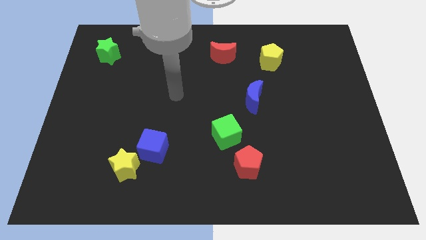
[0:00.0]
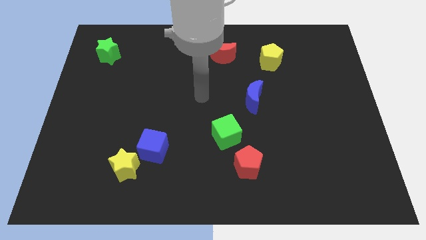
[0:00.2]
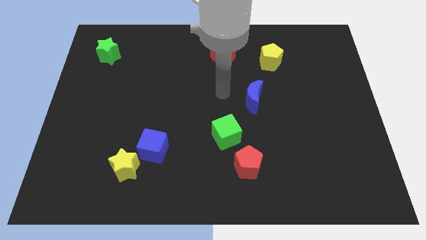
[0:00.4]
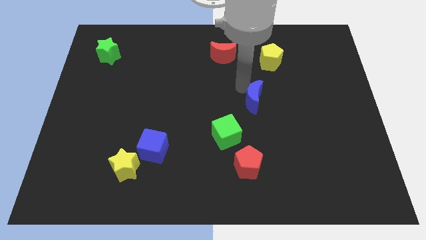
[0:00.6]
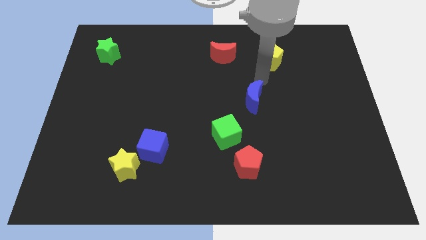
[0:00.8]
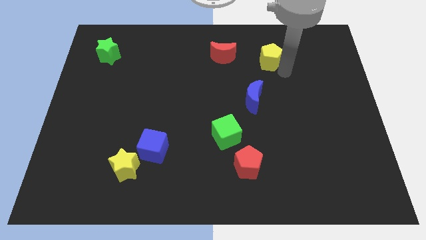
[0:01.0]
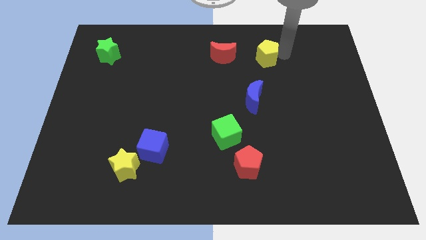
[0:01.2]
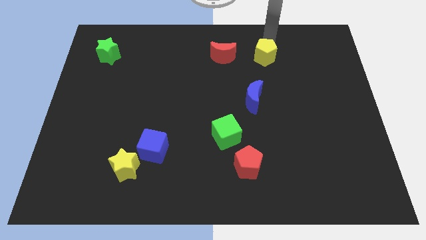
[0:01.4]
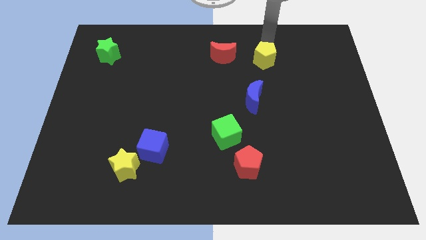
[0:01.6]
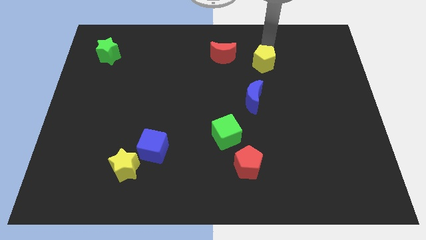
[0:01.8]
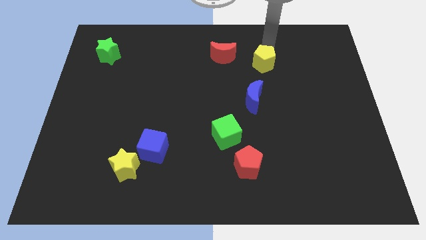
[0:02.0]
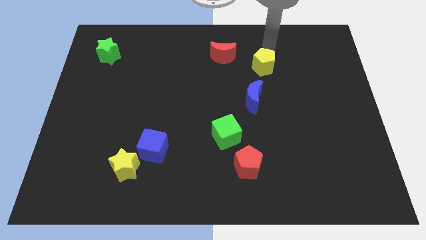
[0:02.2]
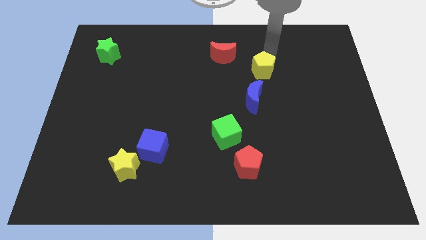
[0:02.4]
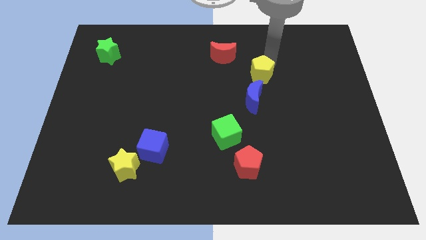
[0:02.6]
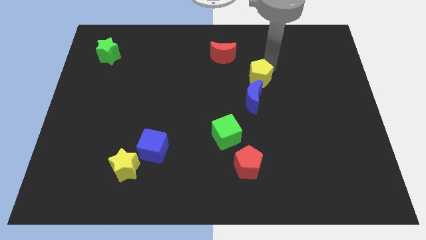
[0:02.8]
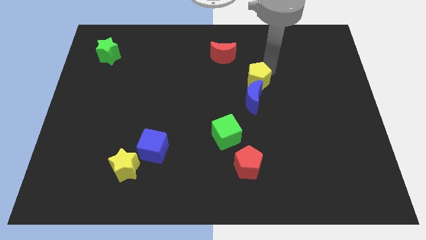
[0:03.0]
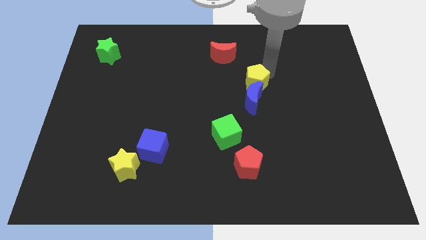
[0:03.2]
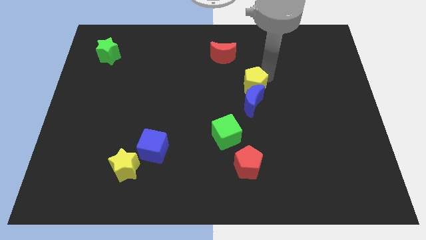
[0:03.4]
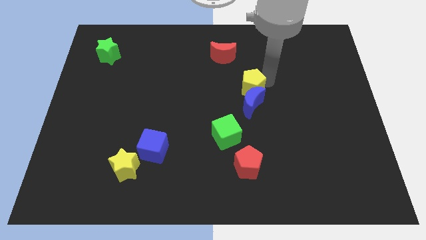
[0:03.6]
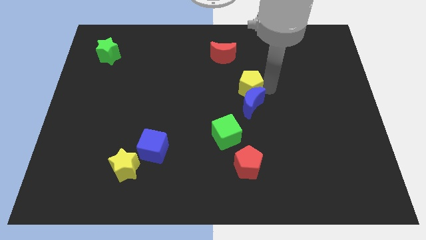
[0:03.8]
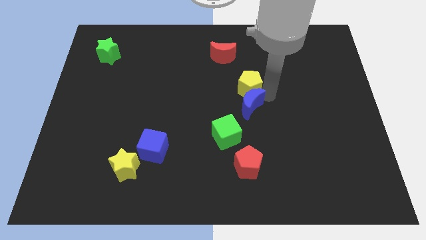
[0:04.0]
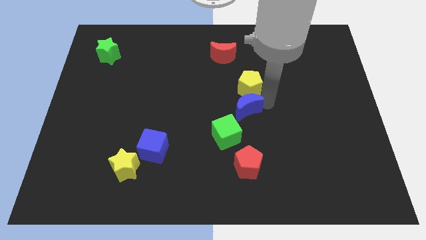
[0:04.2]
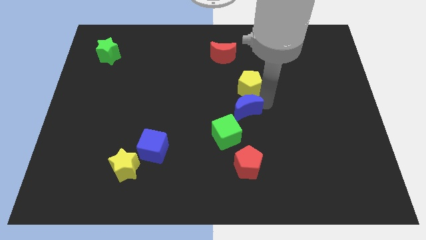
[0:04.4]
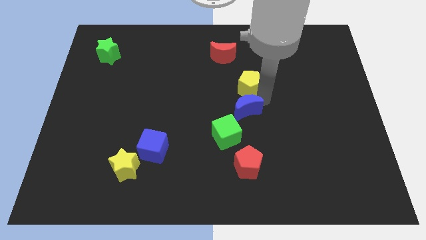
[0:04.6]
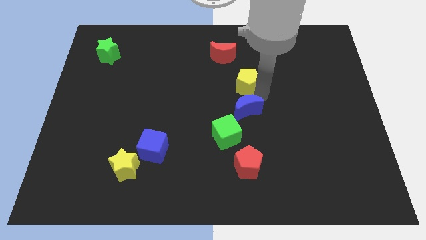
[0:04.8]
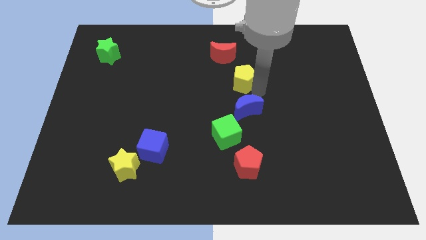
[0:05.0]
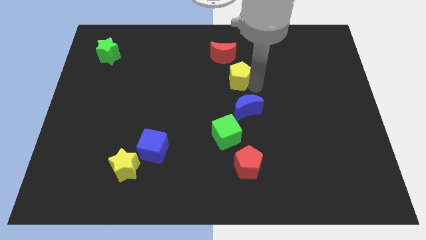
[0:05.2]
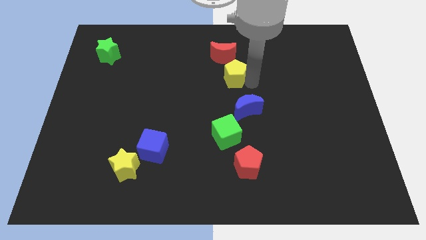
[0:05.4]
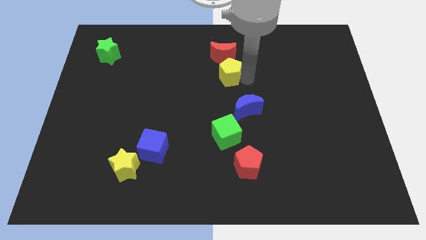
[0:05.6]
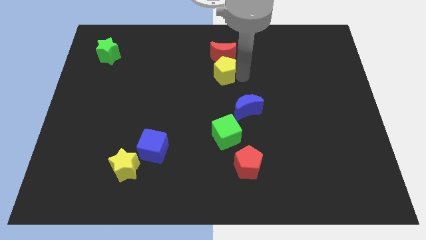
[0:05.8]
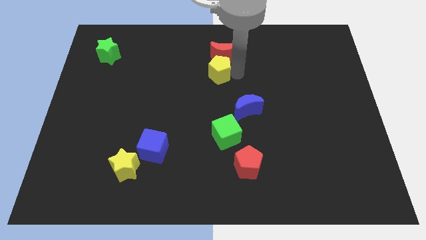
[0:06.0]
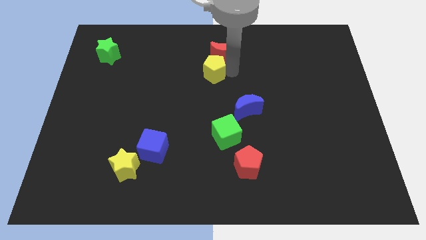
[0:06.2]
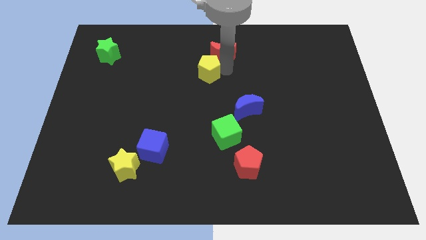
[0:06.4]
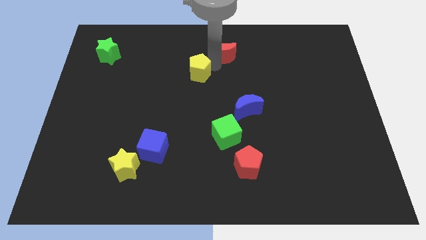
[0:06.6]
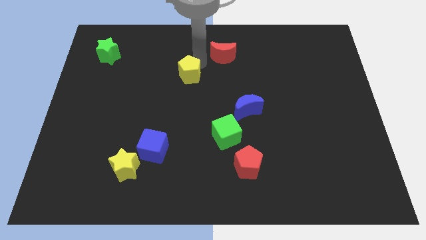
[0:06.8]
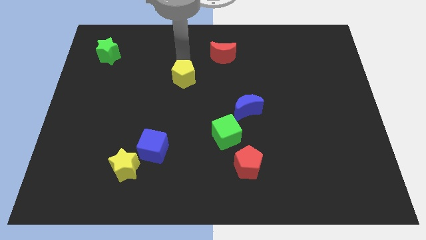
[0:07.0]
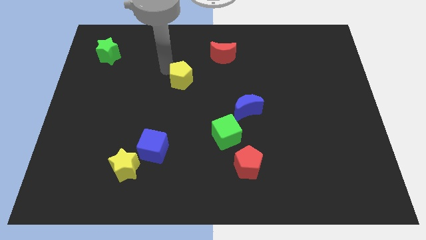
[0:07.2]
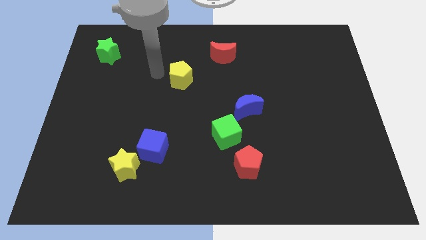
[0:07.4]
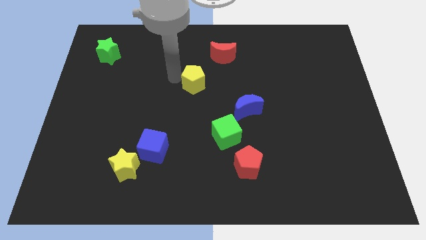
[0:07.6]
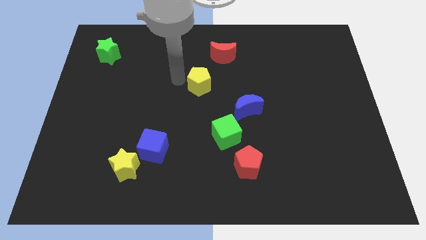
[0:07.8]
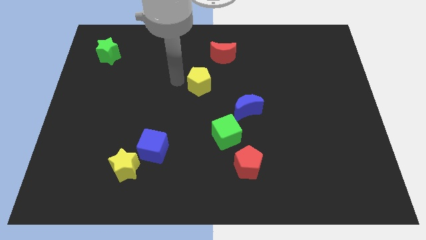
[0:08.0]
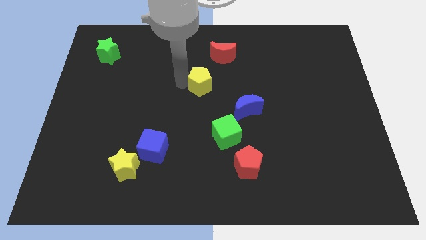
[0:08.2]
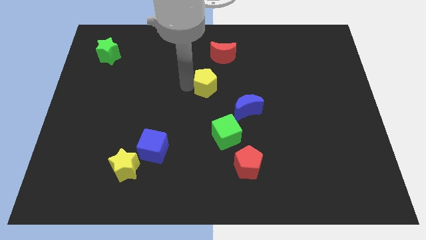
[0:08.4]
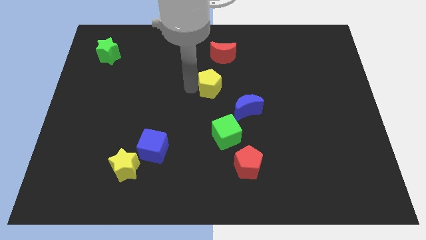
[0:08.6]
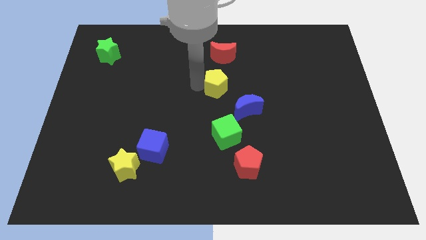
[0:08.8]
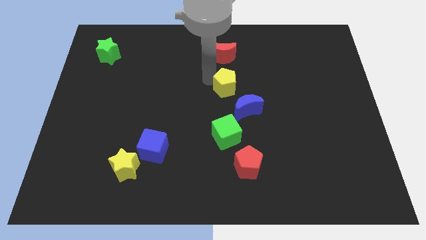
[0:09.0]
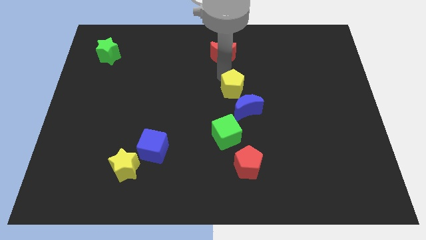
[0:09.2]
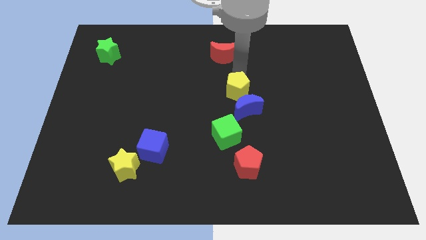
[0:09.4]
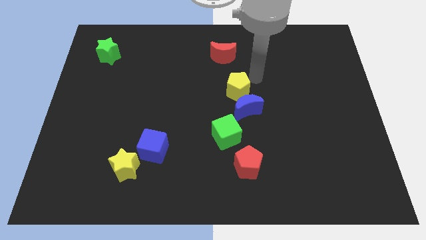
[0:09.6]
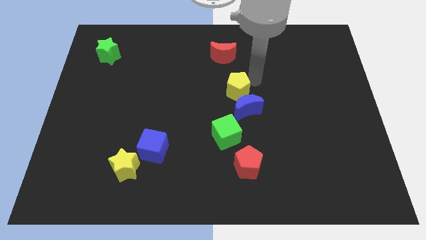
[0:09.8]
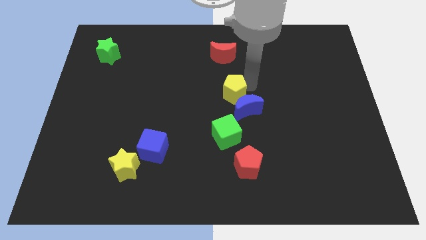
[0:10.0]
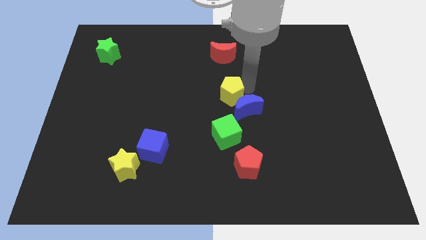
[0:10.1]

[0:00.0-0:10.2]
slide the yellow pentagon to the left side of the blue moon

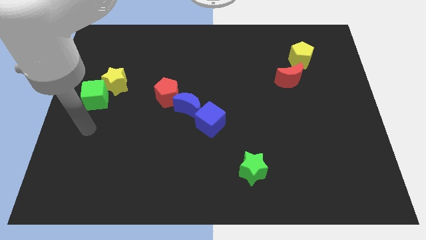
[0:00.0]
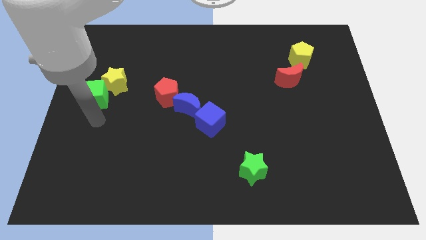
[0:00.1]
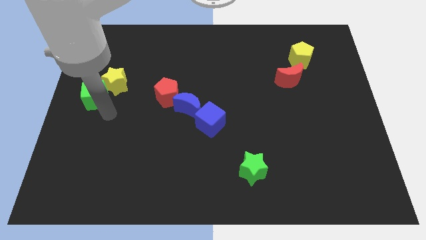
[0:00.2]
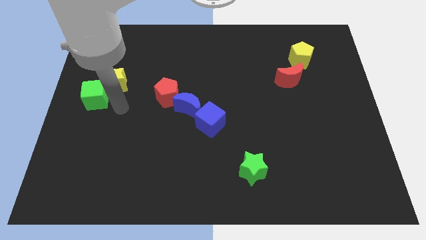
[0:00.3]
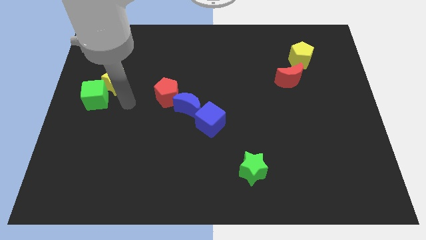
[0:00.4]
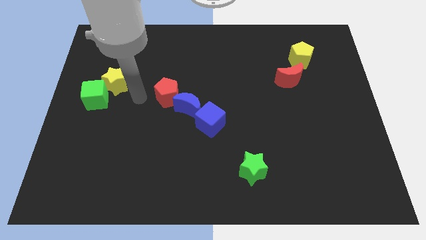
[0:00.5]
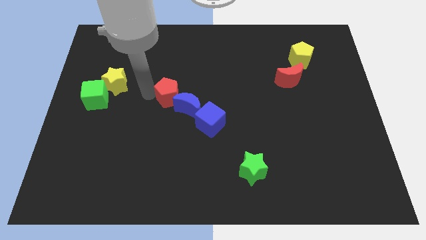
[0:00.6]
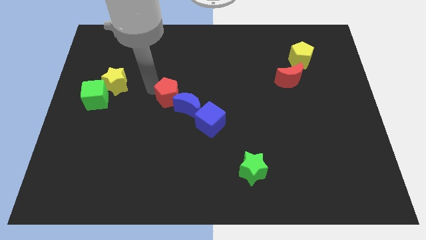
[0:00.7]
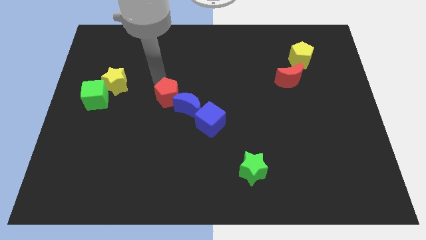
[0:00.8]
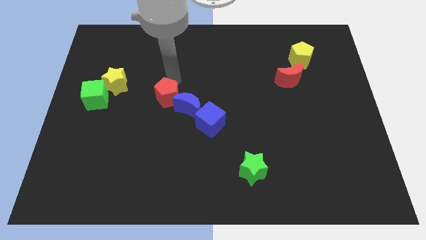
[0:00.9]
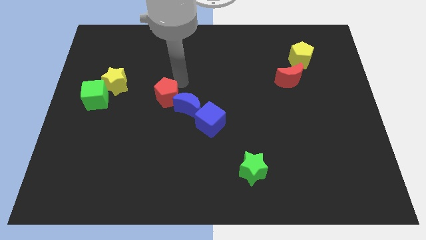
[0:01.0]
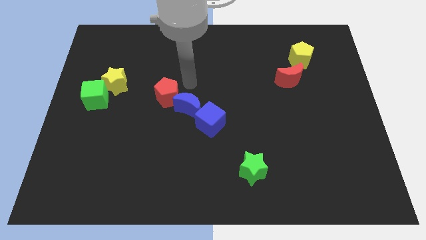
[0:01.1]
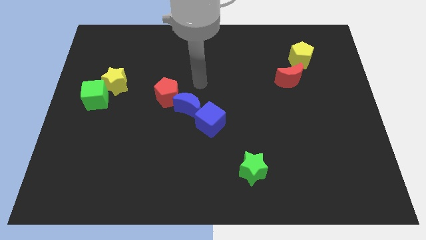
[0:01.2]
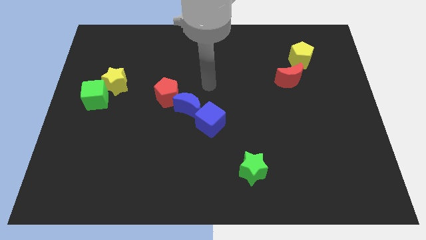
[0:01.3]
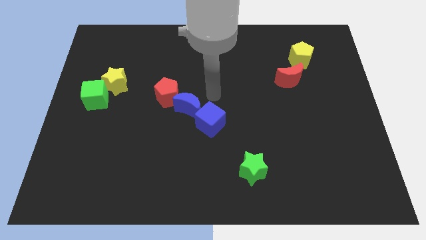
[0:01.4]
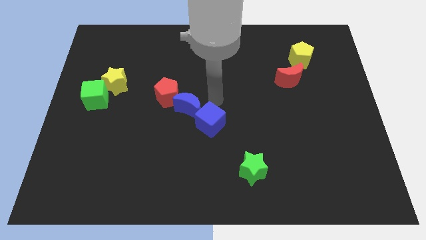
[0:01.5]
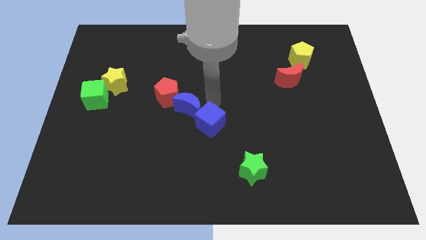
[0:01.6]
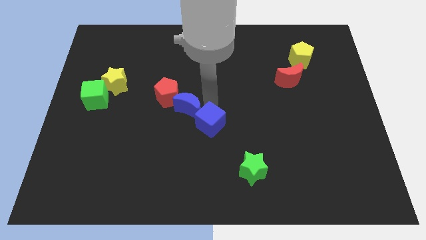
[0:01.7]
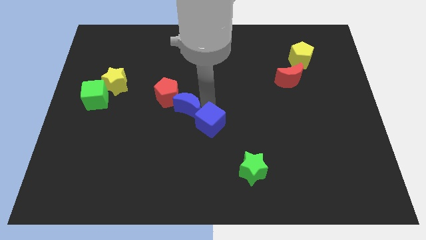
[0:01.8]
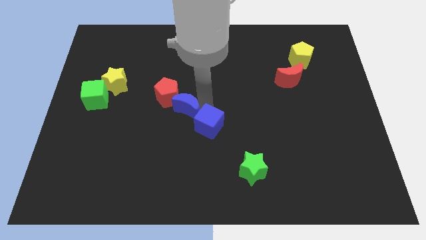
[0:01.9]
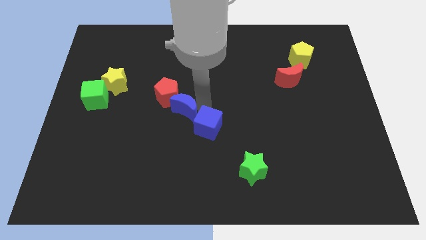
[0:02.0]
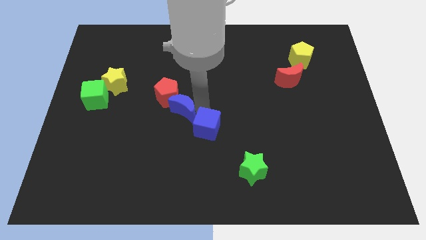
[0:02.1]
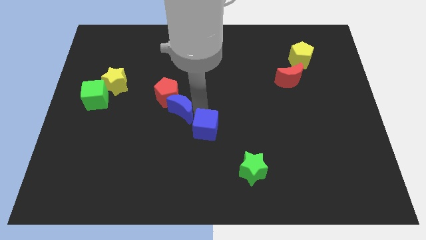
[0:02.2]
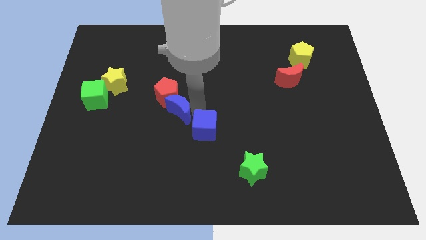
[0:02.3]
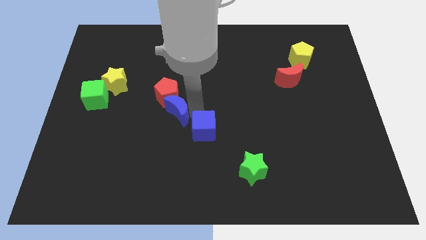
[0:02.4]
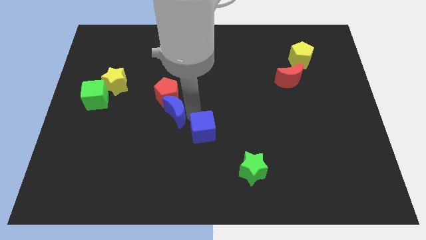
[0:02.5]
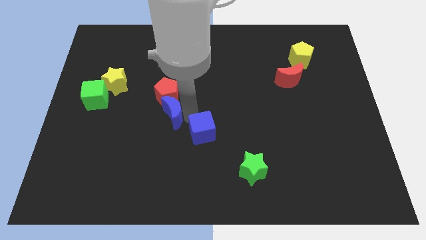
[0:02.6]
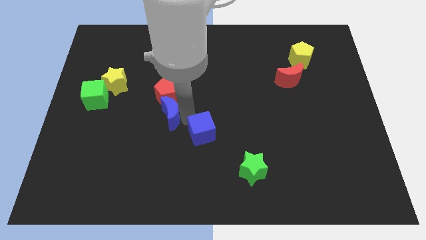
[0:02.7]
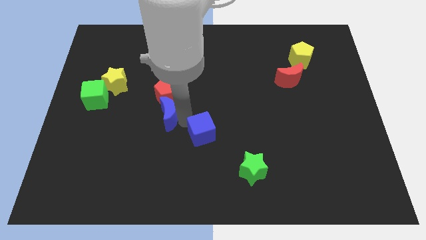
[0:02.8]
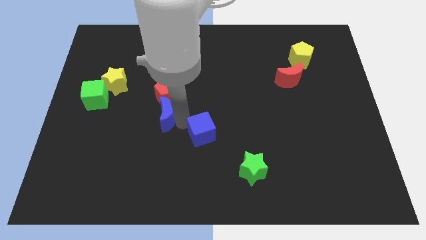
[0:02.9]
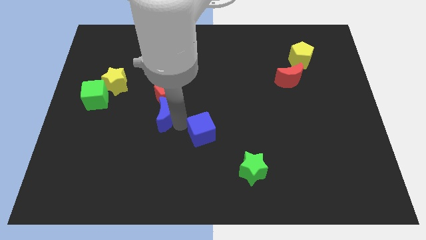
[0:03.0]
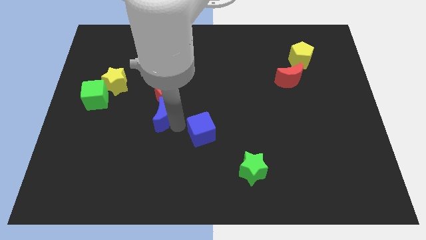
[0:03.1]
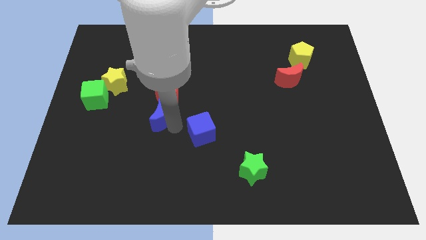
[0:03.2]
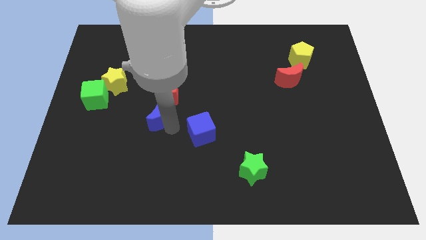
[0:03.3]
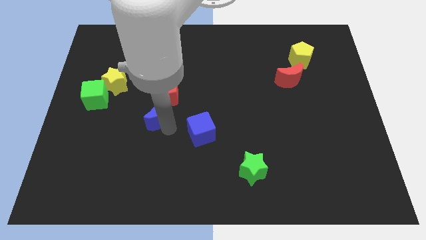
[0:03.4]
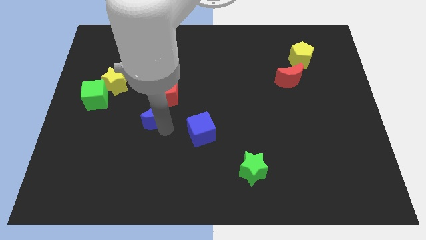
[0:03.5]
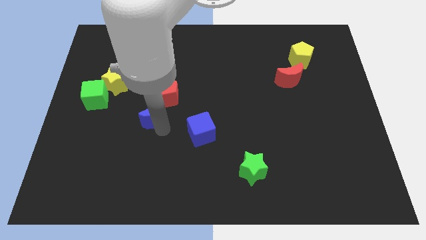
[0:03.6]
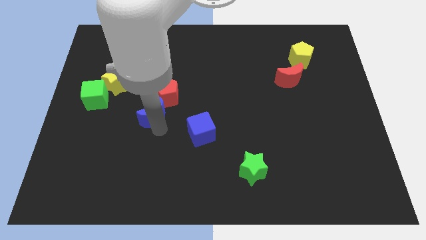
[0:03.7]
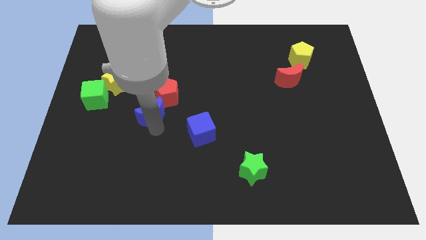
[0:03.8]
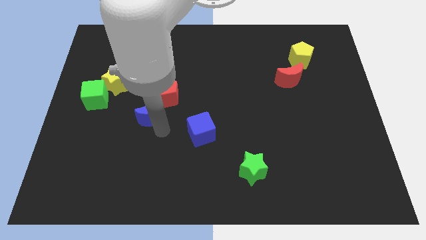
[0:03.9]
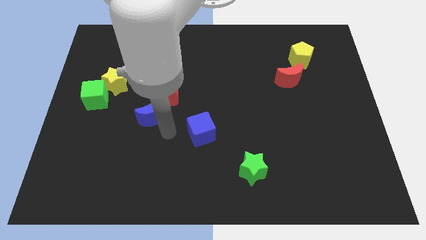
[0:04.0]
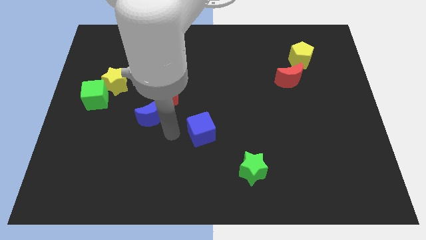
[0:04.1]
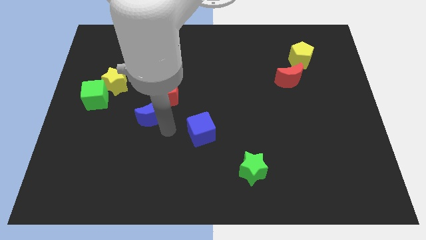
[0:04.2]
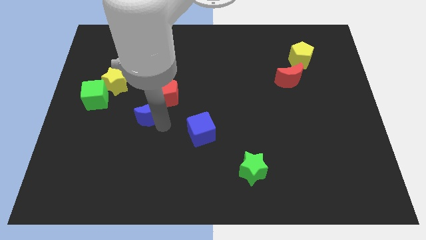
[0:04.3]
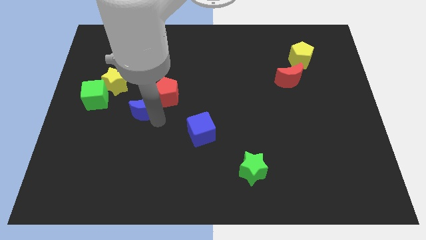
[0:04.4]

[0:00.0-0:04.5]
slide the blue moon to the bottom right side of the yellow star
